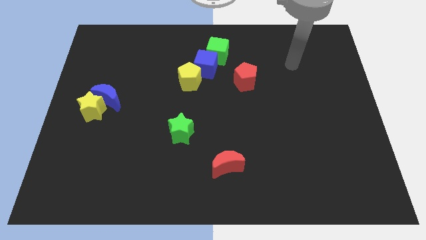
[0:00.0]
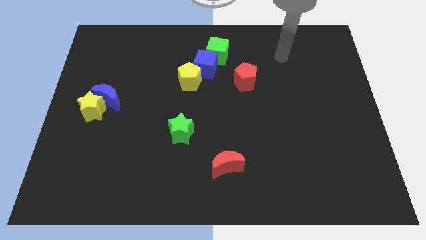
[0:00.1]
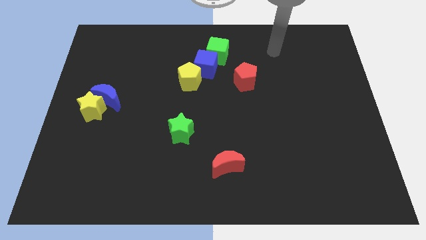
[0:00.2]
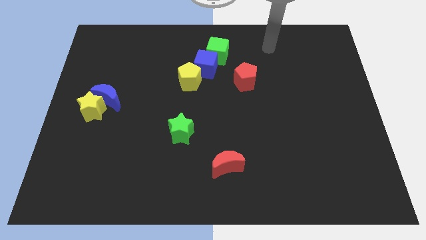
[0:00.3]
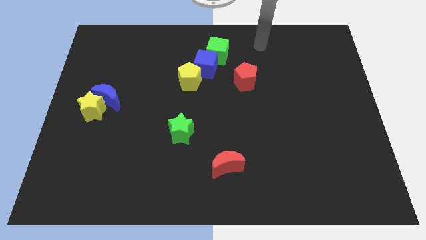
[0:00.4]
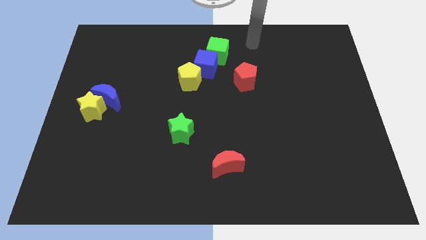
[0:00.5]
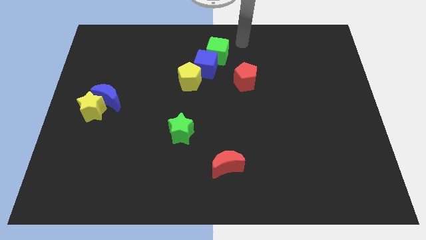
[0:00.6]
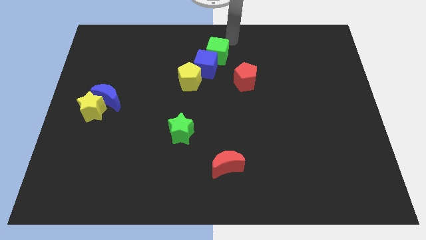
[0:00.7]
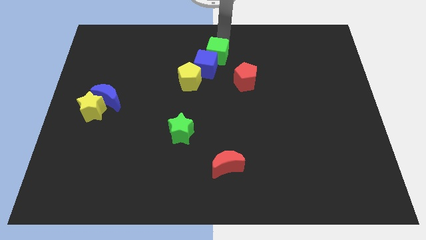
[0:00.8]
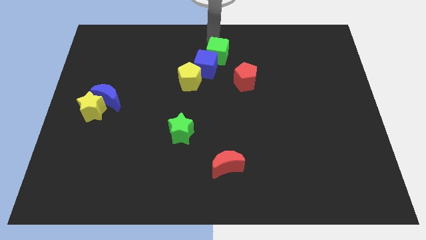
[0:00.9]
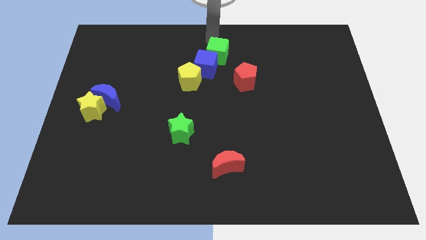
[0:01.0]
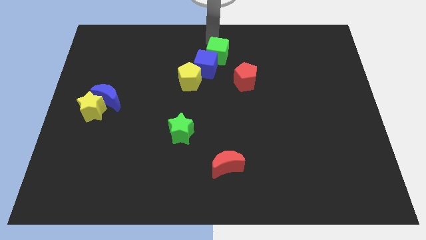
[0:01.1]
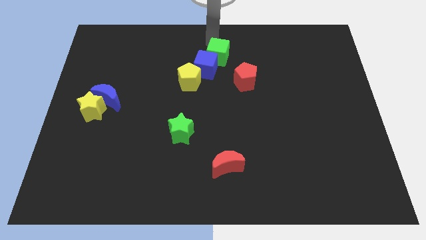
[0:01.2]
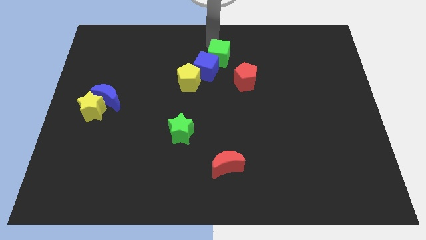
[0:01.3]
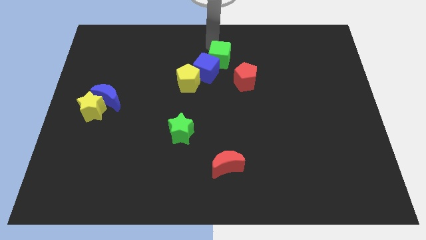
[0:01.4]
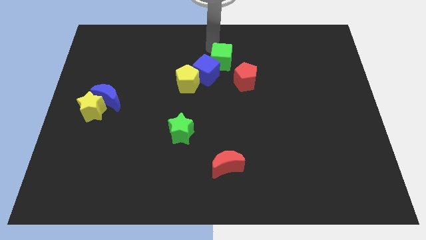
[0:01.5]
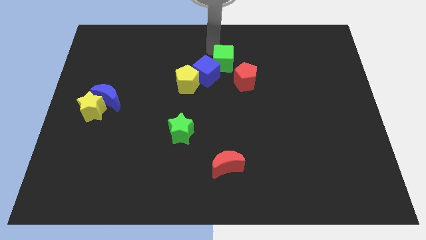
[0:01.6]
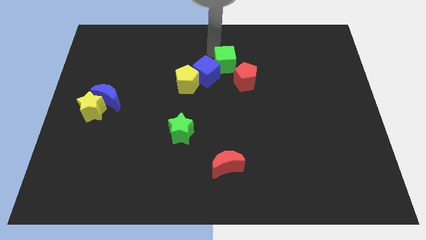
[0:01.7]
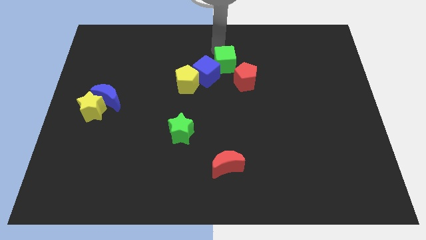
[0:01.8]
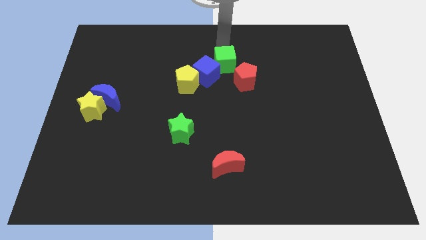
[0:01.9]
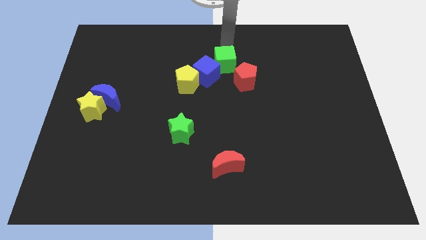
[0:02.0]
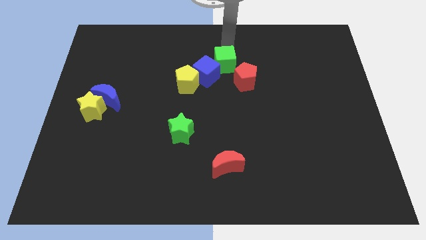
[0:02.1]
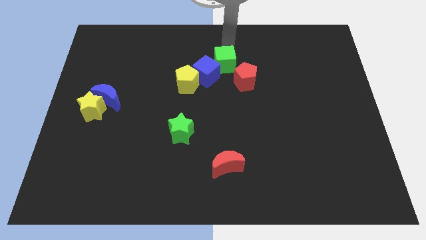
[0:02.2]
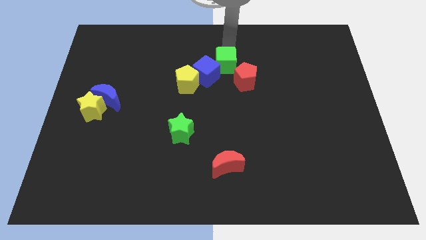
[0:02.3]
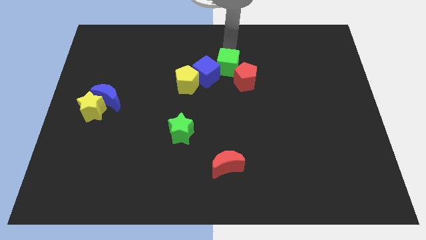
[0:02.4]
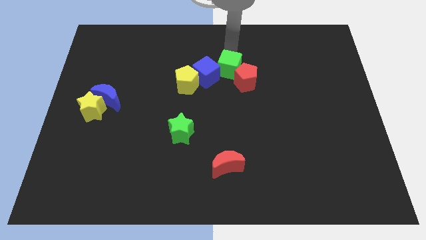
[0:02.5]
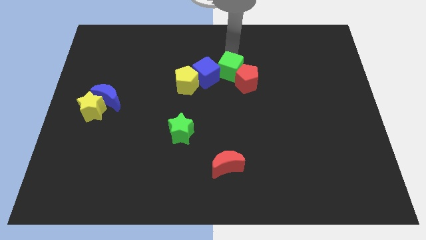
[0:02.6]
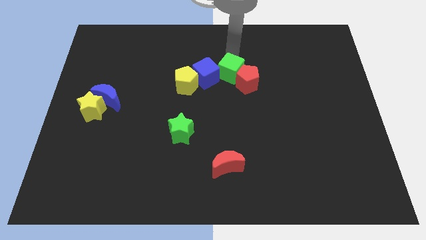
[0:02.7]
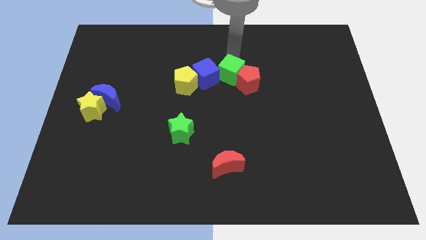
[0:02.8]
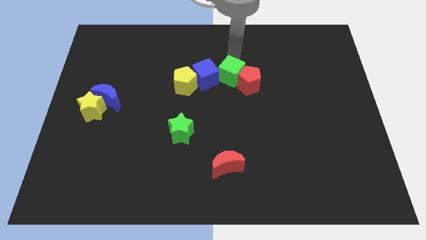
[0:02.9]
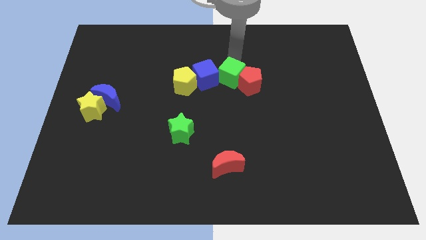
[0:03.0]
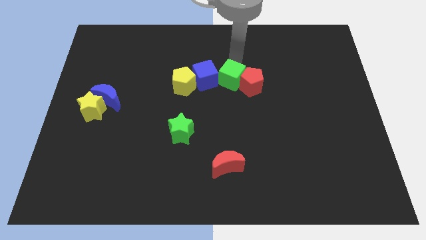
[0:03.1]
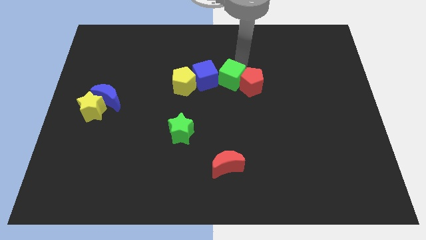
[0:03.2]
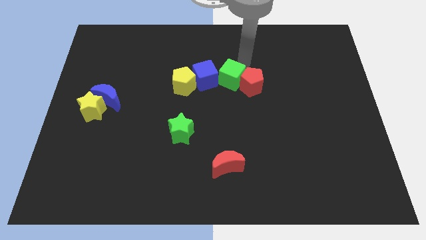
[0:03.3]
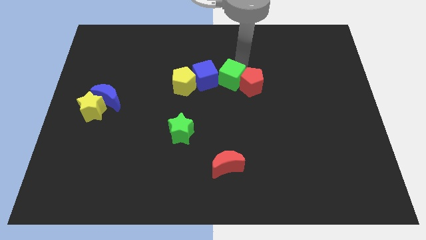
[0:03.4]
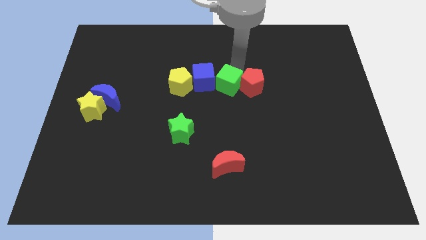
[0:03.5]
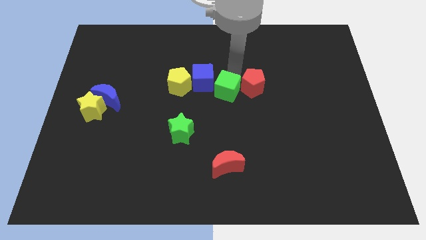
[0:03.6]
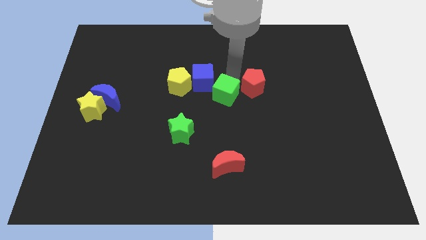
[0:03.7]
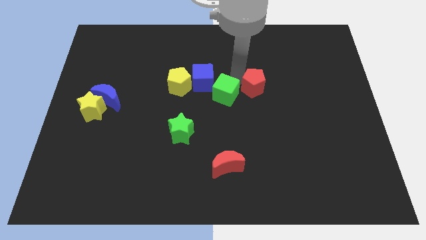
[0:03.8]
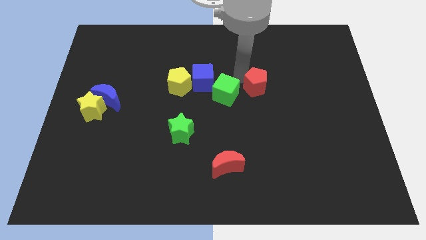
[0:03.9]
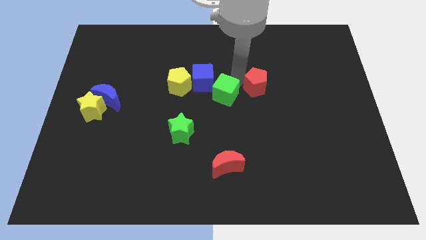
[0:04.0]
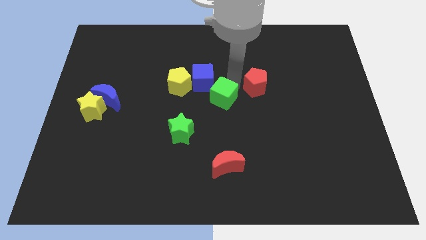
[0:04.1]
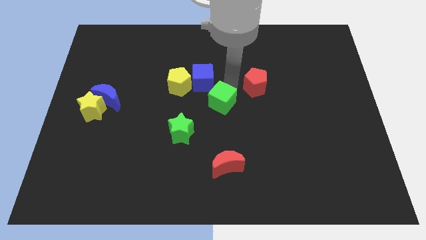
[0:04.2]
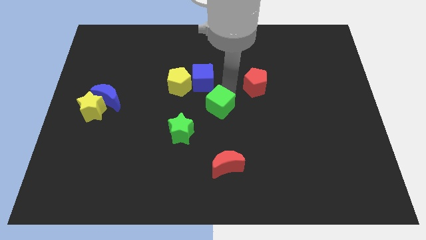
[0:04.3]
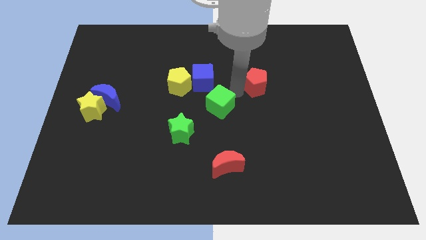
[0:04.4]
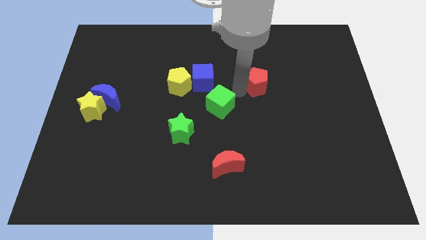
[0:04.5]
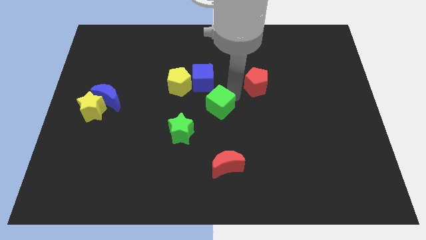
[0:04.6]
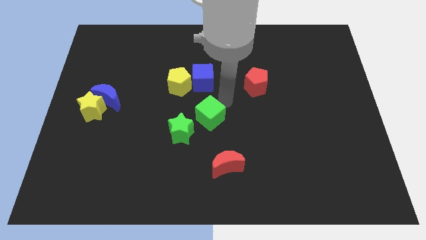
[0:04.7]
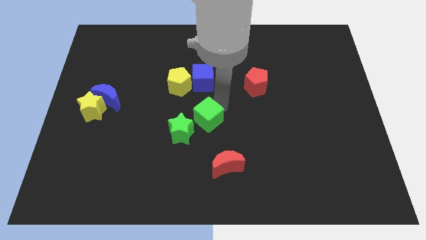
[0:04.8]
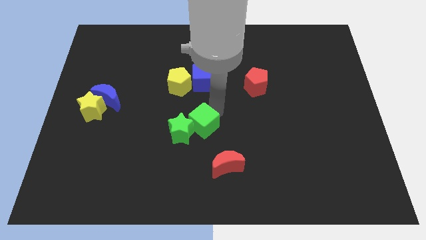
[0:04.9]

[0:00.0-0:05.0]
put the green cube next to the green star

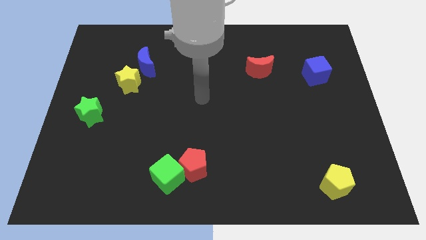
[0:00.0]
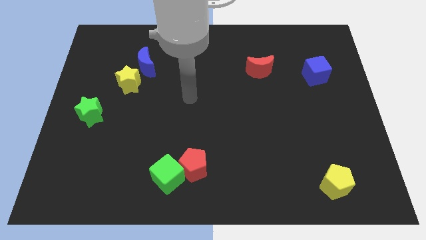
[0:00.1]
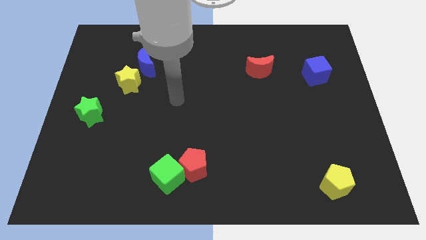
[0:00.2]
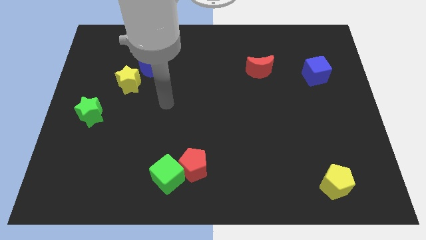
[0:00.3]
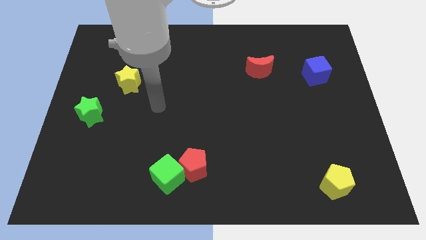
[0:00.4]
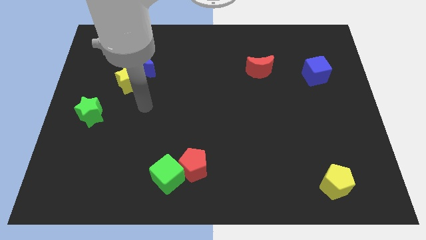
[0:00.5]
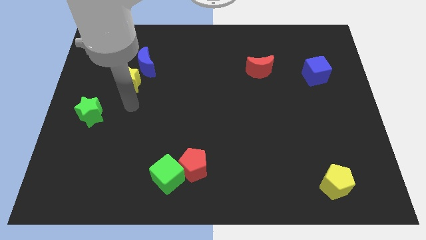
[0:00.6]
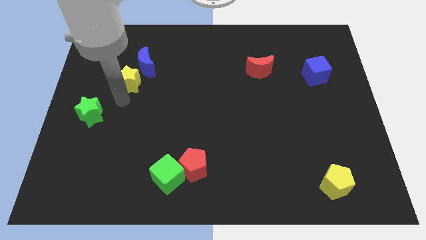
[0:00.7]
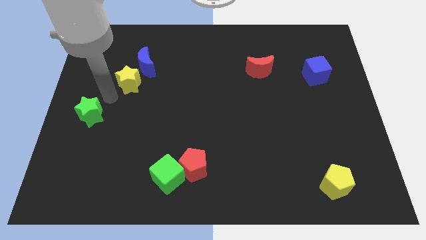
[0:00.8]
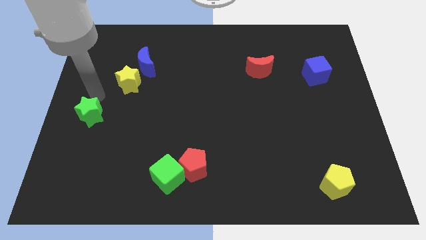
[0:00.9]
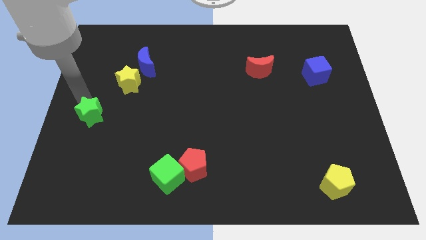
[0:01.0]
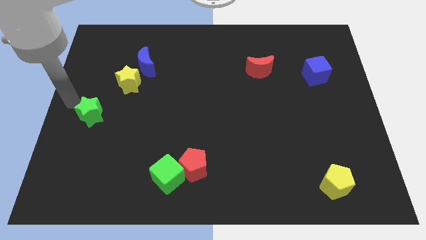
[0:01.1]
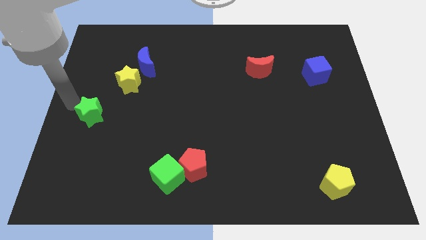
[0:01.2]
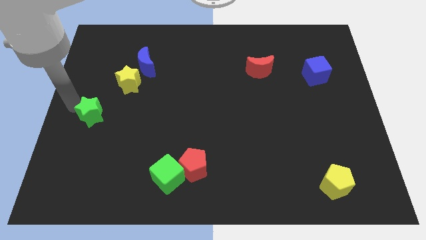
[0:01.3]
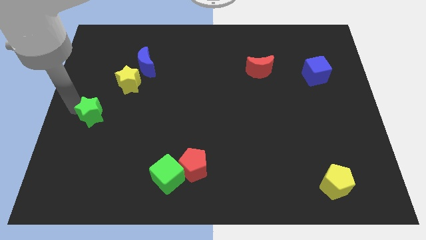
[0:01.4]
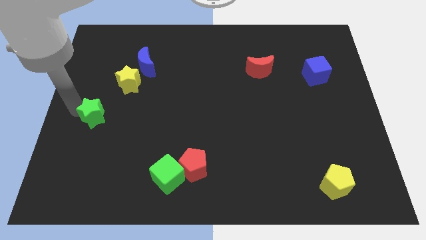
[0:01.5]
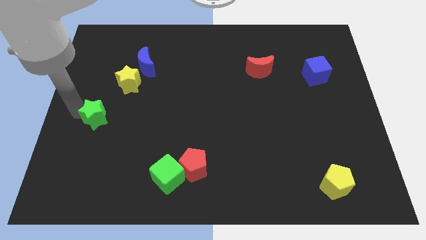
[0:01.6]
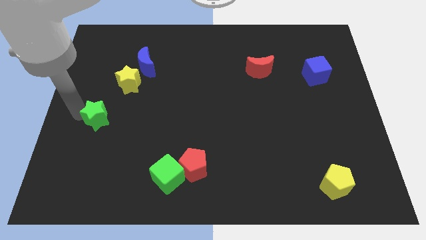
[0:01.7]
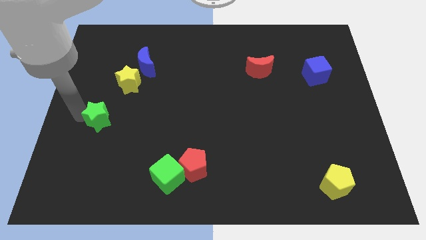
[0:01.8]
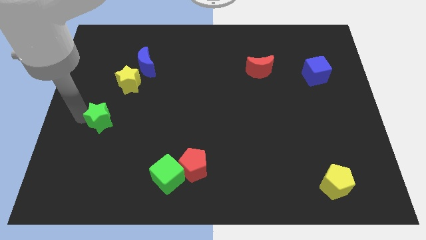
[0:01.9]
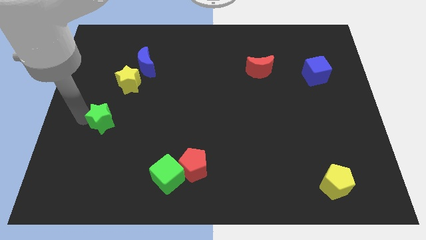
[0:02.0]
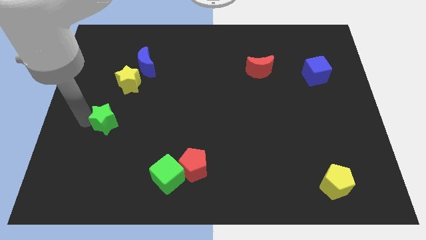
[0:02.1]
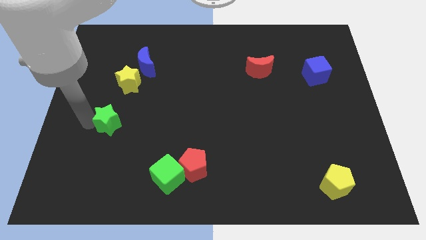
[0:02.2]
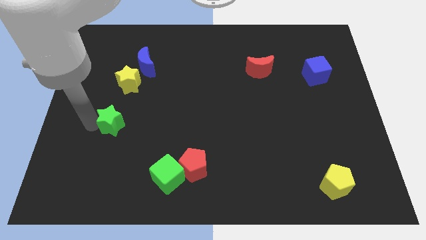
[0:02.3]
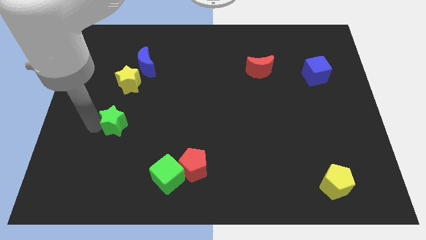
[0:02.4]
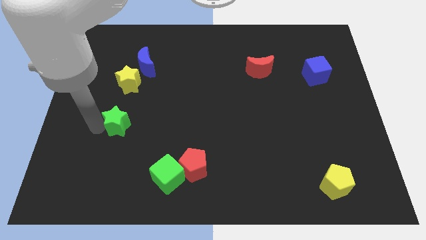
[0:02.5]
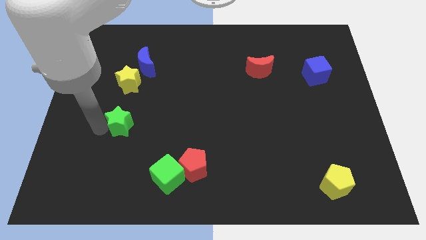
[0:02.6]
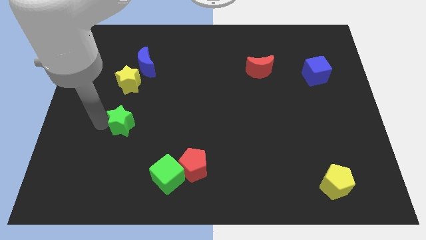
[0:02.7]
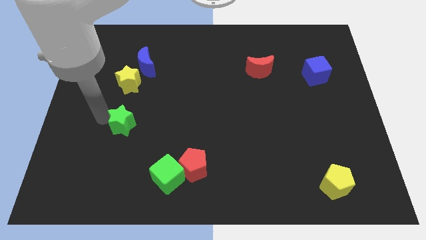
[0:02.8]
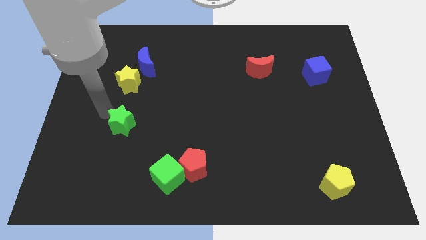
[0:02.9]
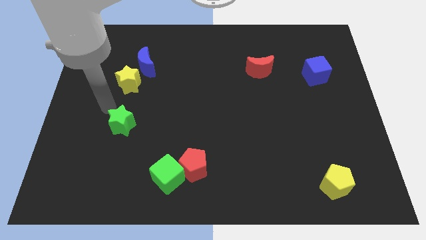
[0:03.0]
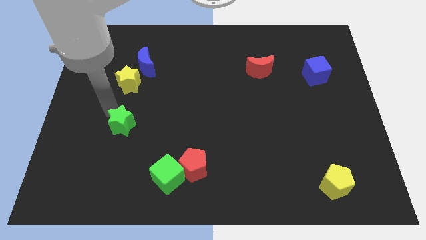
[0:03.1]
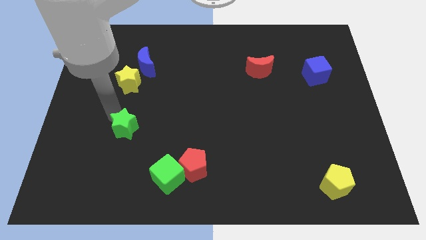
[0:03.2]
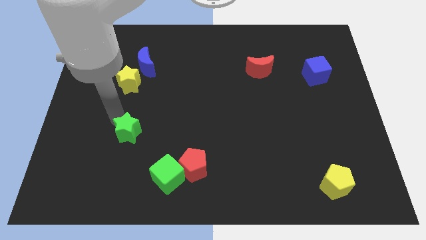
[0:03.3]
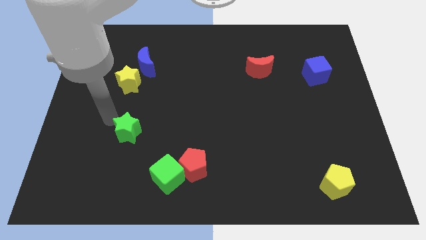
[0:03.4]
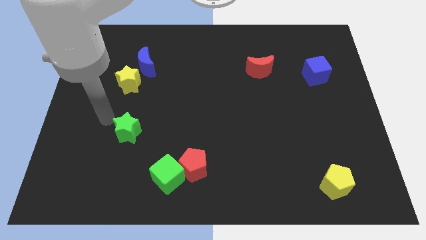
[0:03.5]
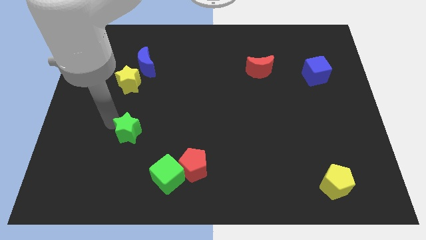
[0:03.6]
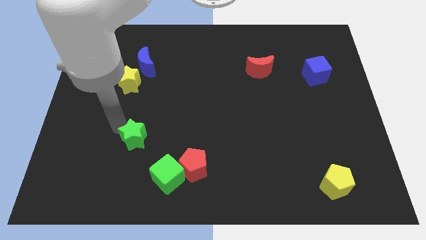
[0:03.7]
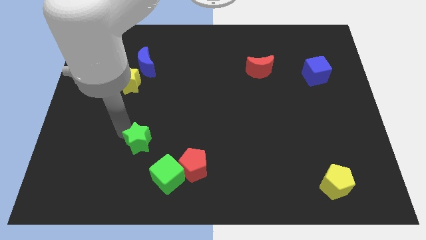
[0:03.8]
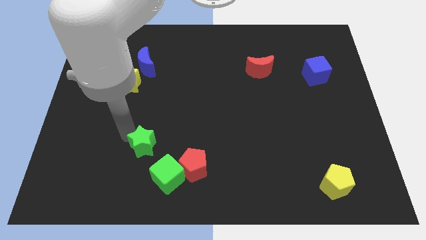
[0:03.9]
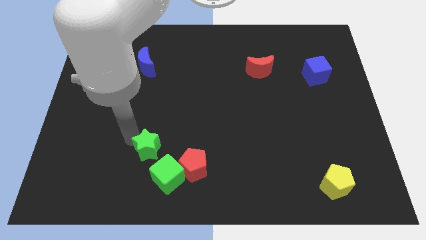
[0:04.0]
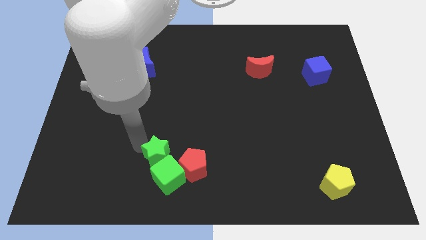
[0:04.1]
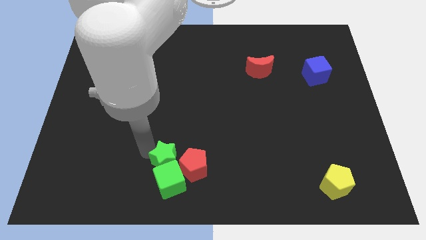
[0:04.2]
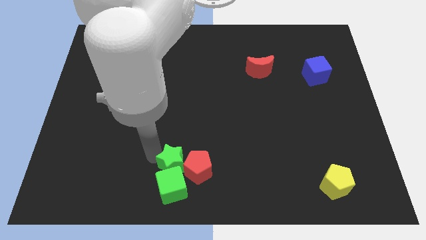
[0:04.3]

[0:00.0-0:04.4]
push the green star next to the red pentagon
